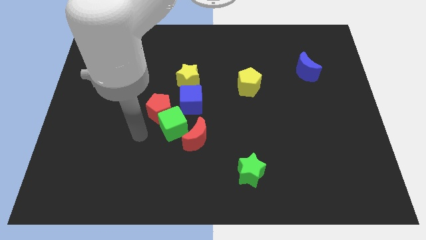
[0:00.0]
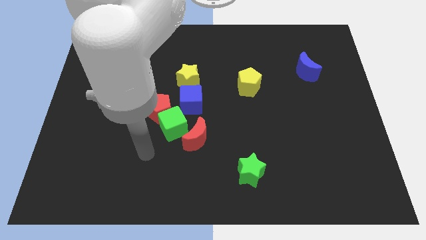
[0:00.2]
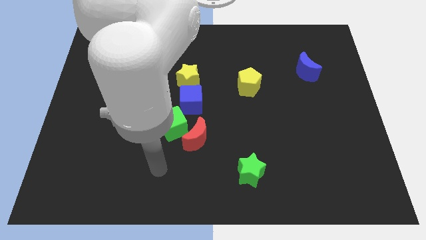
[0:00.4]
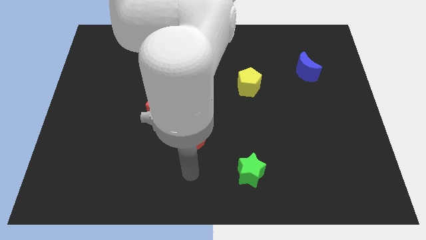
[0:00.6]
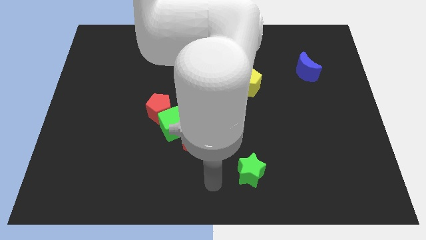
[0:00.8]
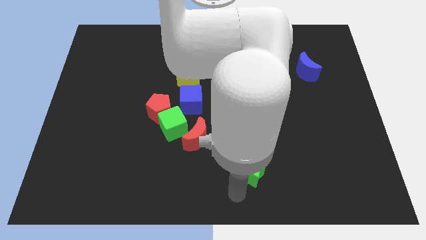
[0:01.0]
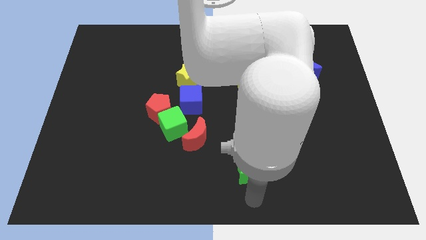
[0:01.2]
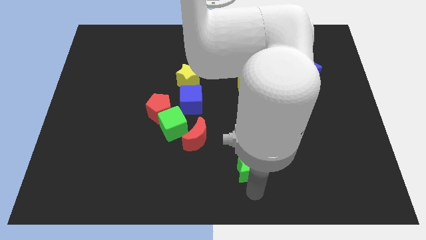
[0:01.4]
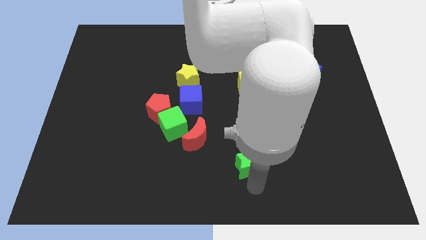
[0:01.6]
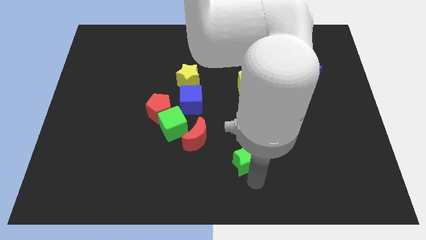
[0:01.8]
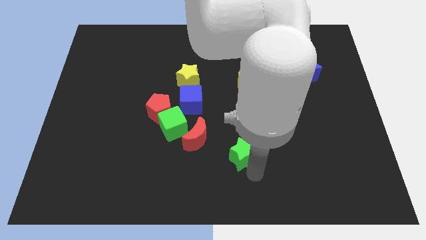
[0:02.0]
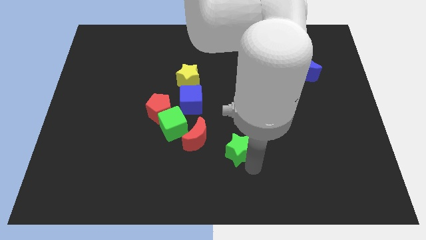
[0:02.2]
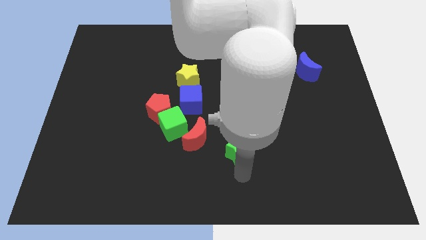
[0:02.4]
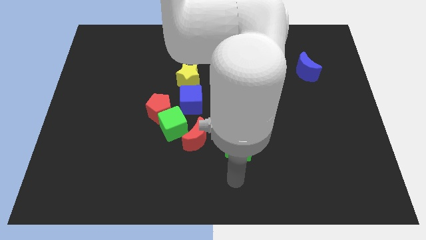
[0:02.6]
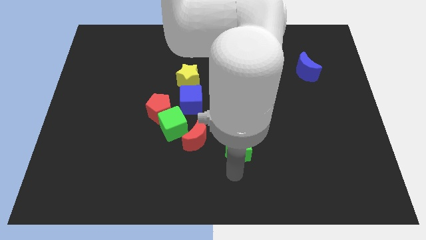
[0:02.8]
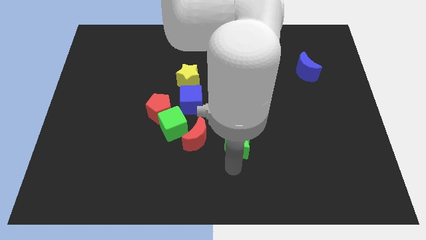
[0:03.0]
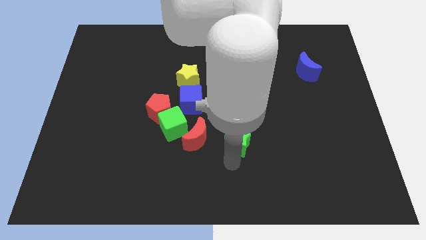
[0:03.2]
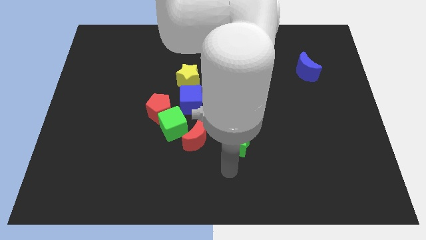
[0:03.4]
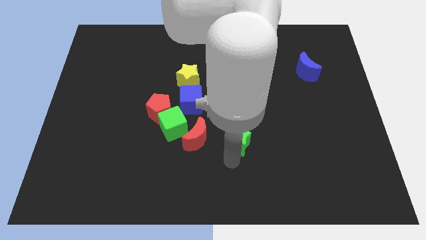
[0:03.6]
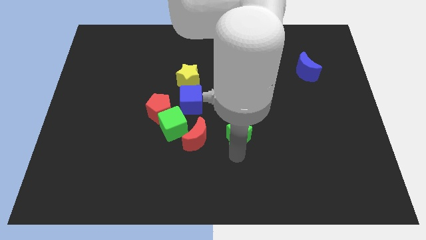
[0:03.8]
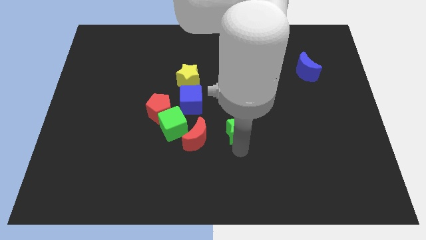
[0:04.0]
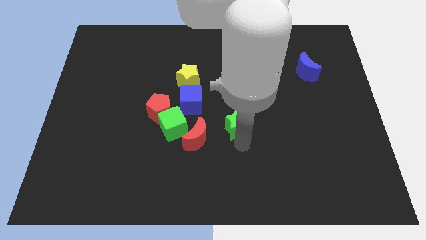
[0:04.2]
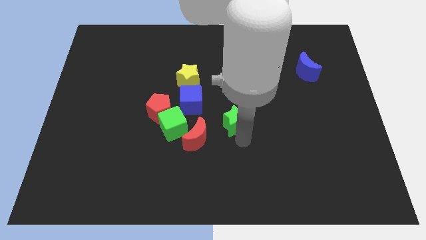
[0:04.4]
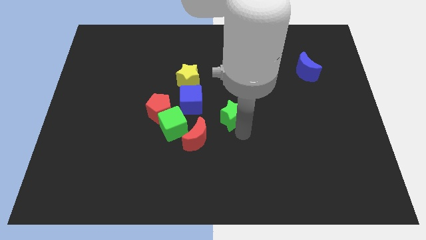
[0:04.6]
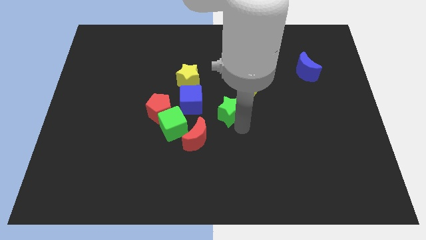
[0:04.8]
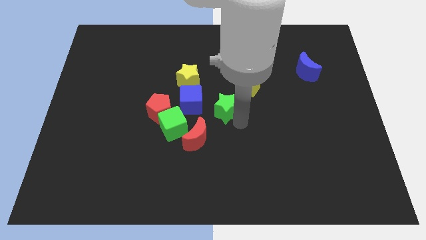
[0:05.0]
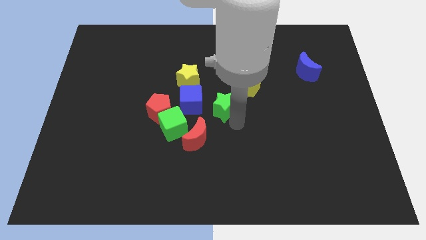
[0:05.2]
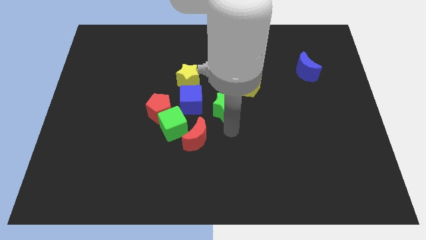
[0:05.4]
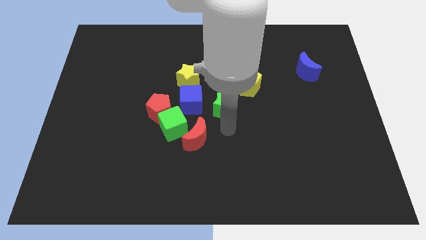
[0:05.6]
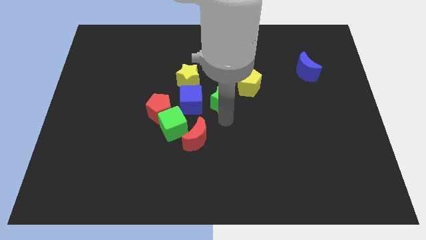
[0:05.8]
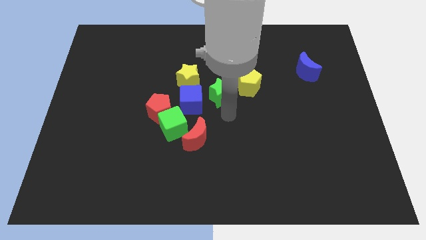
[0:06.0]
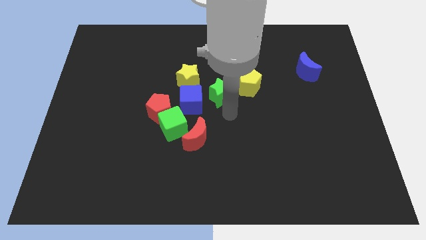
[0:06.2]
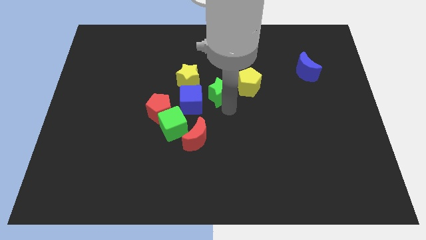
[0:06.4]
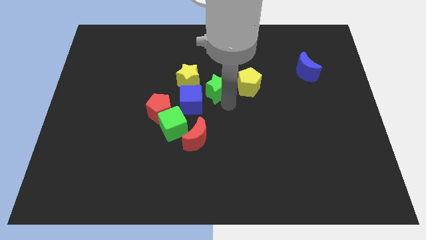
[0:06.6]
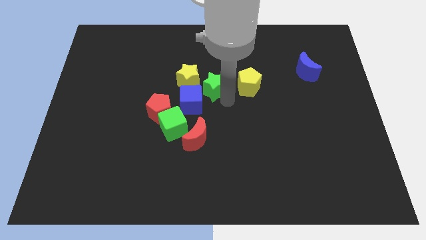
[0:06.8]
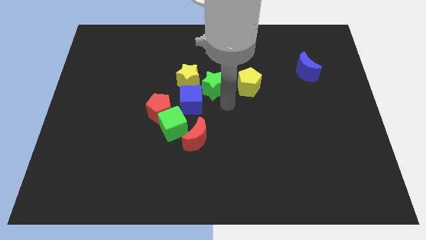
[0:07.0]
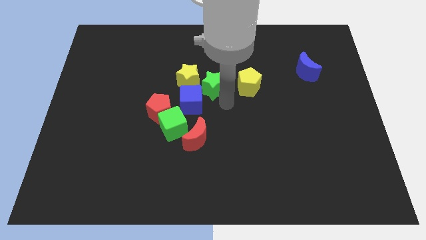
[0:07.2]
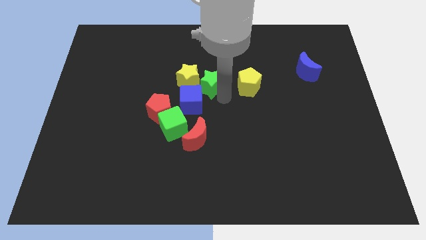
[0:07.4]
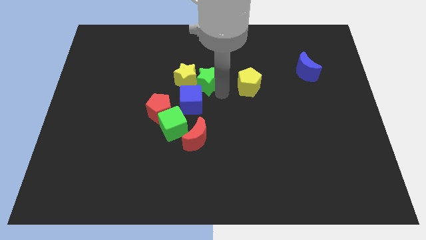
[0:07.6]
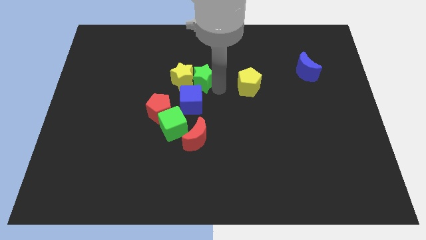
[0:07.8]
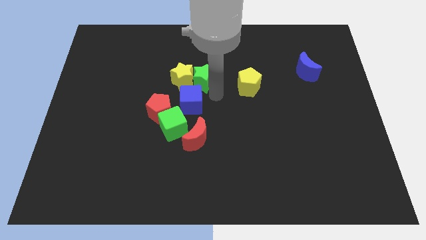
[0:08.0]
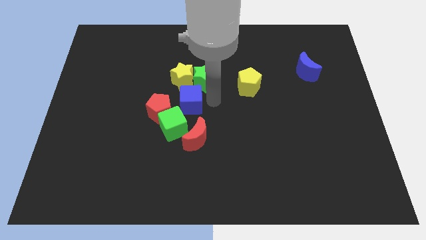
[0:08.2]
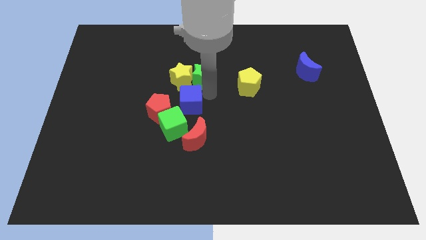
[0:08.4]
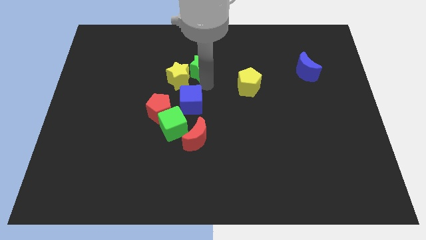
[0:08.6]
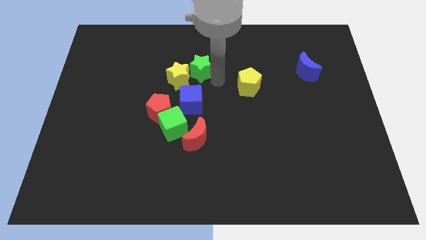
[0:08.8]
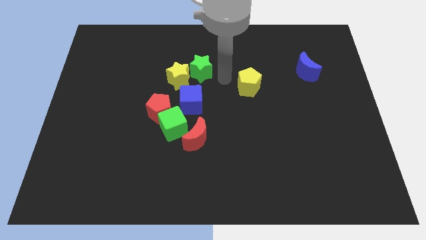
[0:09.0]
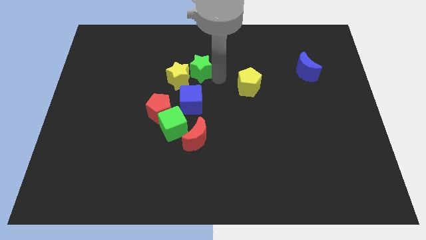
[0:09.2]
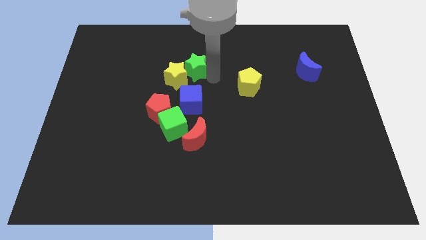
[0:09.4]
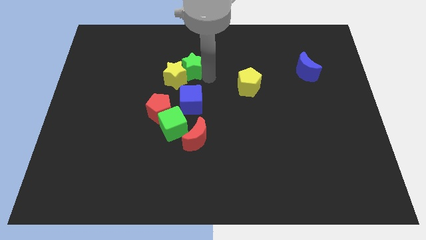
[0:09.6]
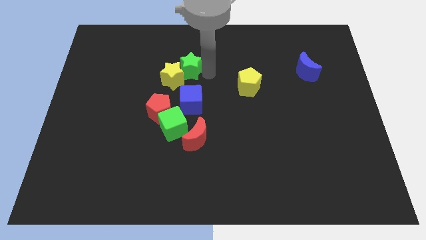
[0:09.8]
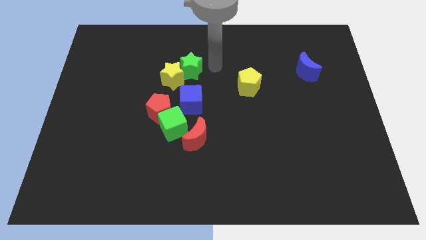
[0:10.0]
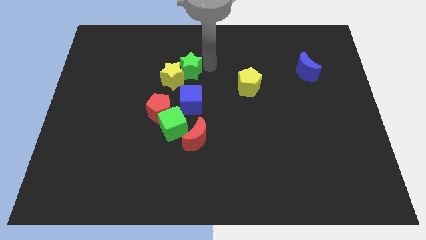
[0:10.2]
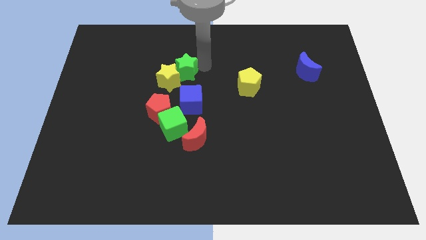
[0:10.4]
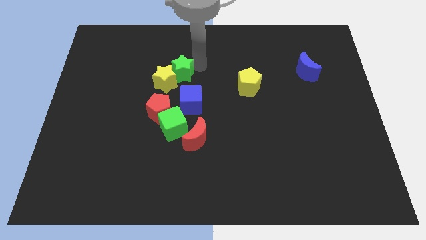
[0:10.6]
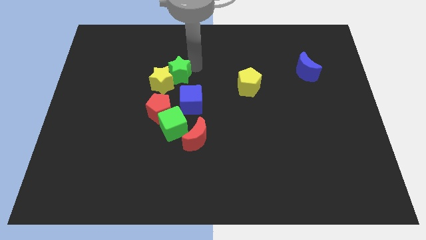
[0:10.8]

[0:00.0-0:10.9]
slide the green star to the top side of the green cube

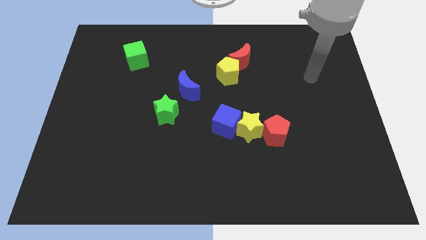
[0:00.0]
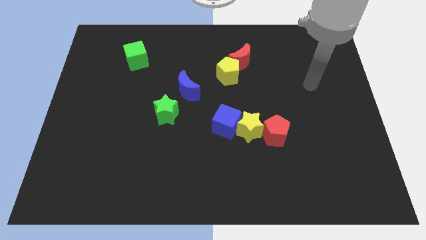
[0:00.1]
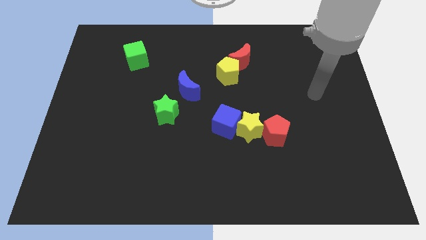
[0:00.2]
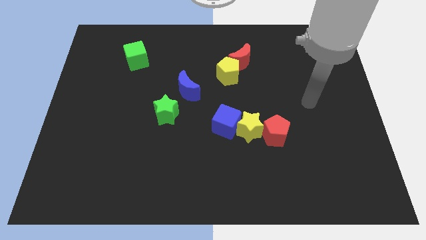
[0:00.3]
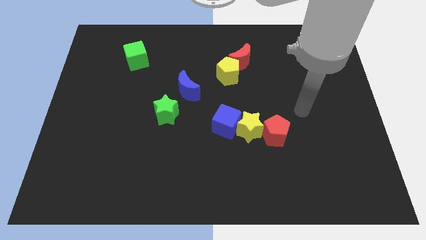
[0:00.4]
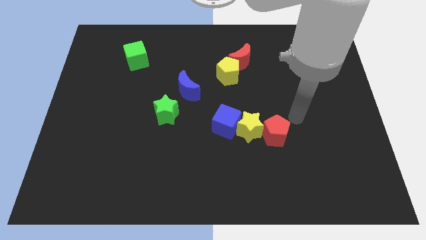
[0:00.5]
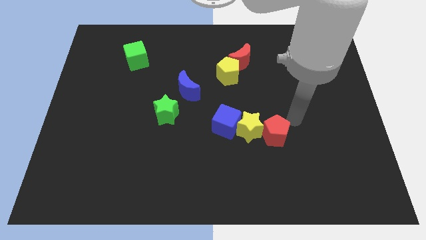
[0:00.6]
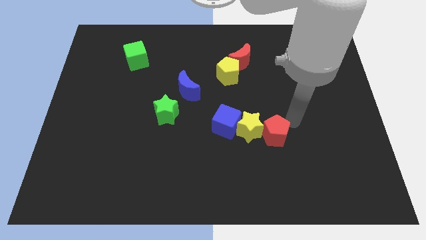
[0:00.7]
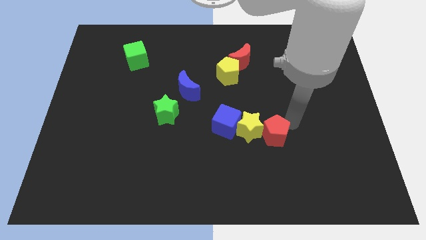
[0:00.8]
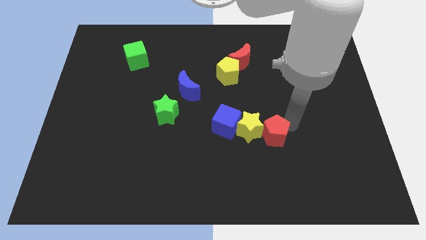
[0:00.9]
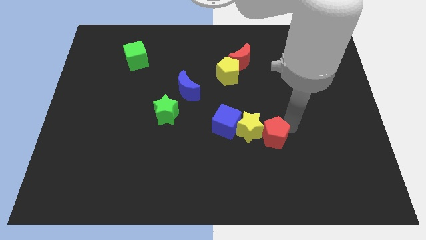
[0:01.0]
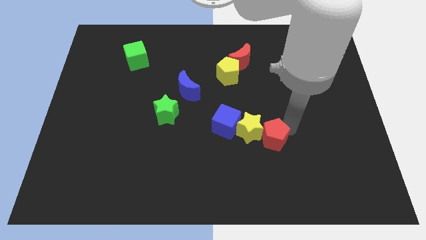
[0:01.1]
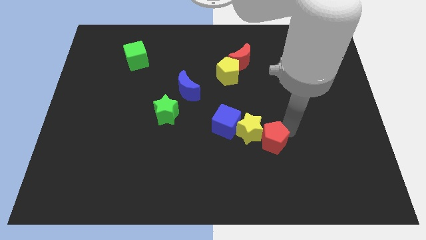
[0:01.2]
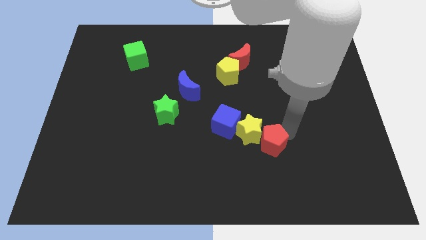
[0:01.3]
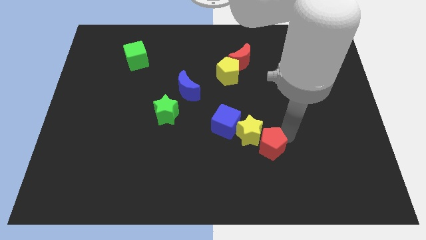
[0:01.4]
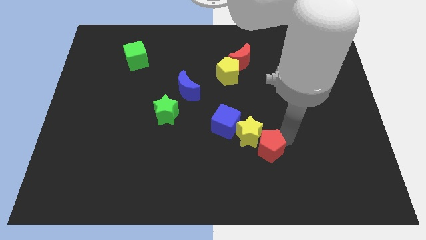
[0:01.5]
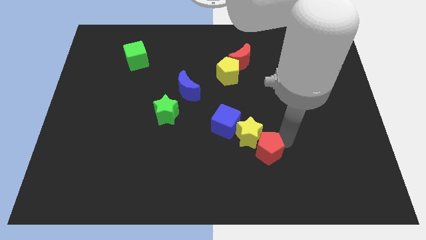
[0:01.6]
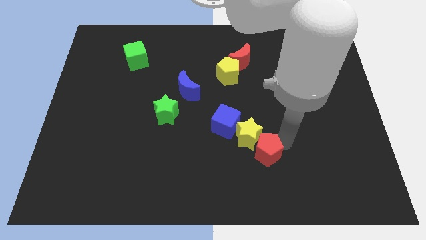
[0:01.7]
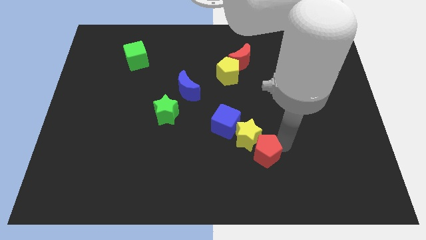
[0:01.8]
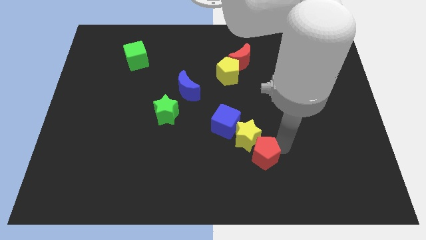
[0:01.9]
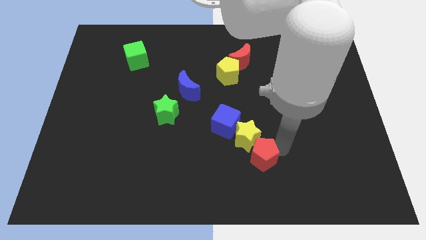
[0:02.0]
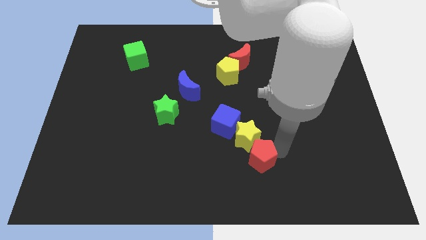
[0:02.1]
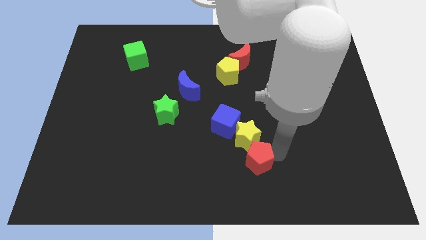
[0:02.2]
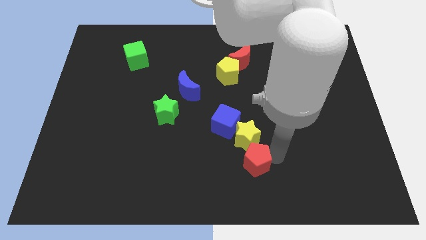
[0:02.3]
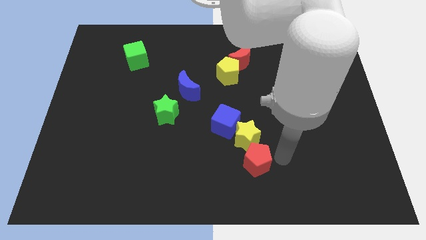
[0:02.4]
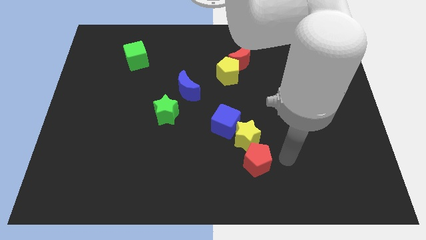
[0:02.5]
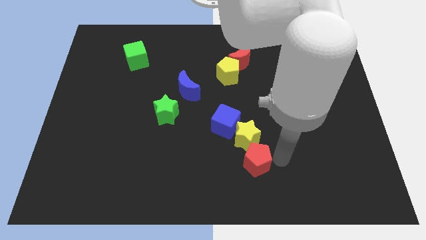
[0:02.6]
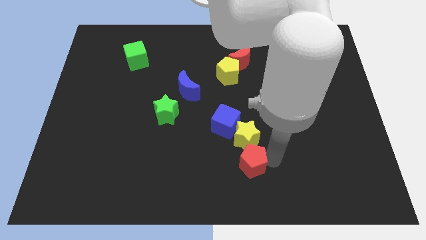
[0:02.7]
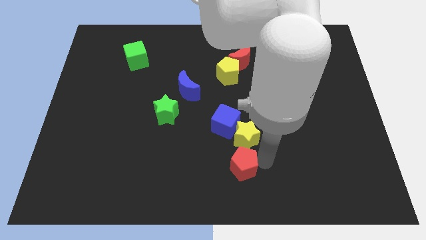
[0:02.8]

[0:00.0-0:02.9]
push the red pentagon to the bottom side of the blue cube
